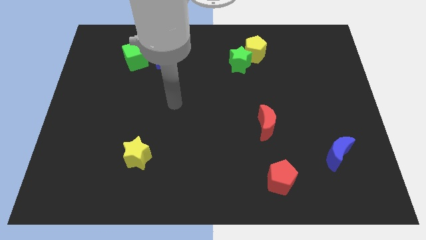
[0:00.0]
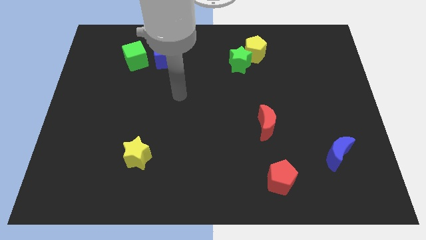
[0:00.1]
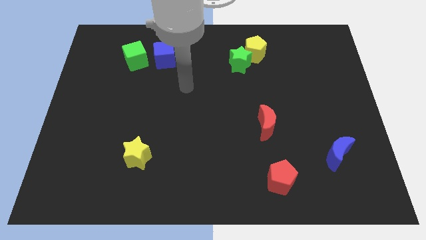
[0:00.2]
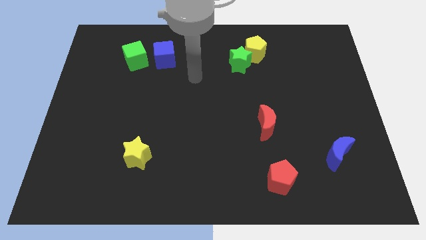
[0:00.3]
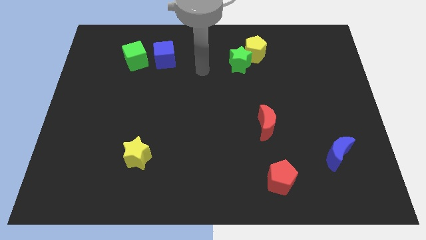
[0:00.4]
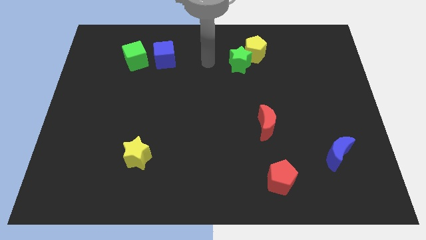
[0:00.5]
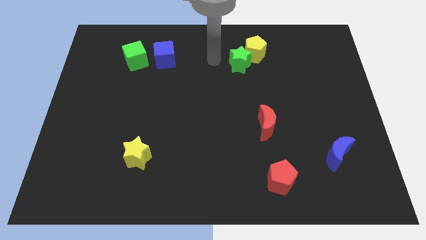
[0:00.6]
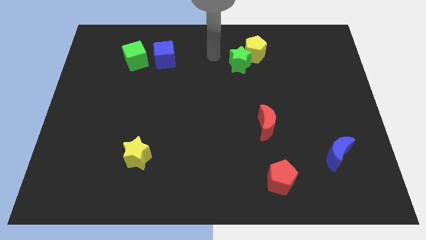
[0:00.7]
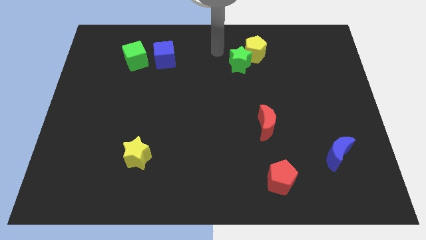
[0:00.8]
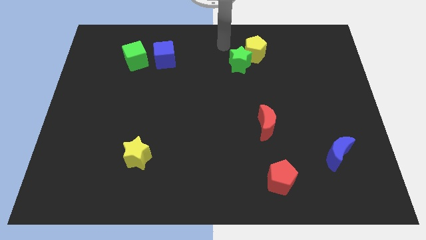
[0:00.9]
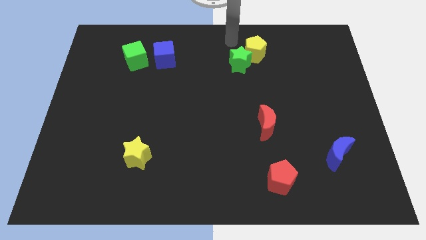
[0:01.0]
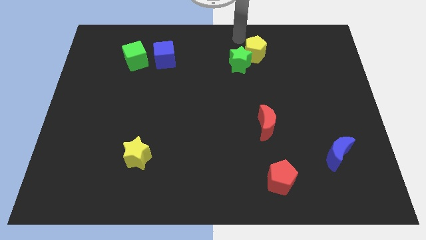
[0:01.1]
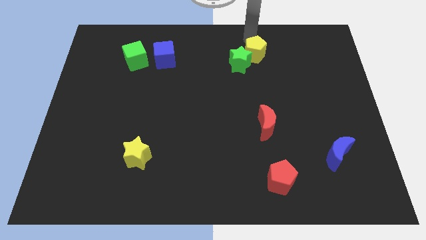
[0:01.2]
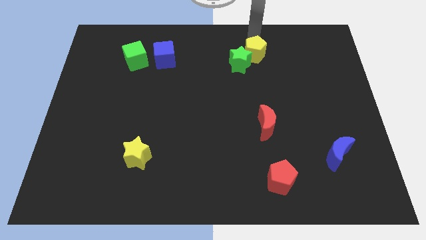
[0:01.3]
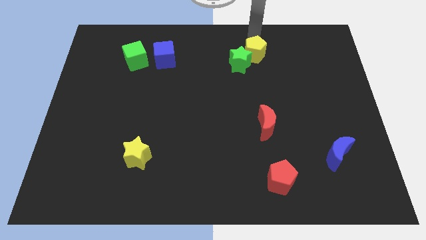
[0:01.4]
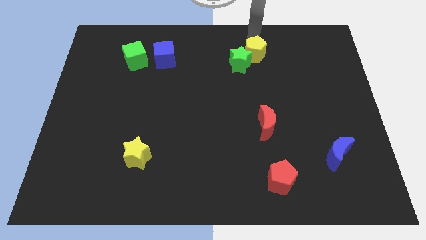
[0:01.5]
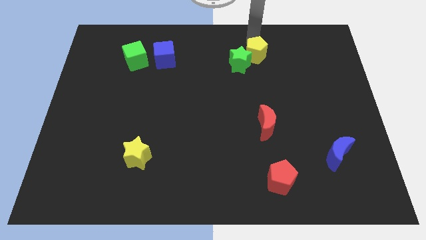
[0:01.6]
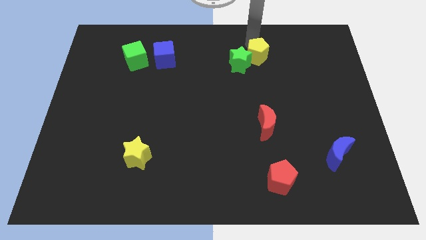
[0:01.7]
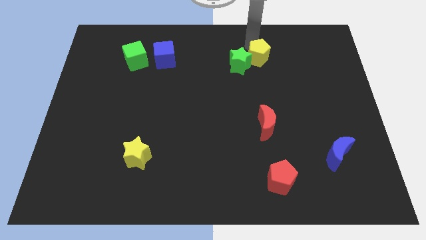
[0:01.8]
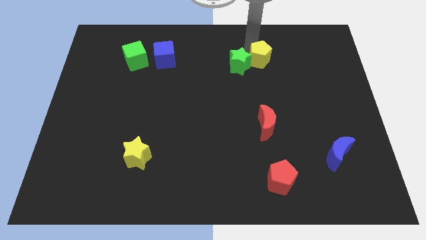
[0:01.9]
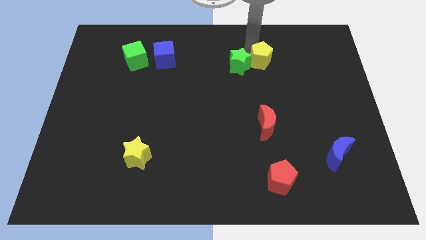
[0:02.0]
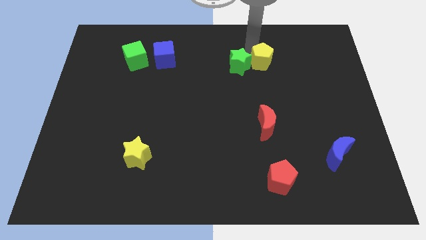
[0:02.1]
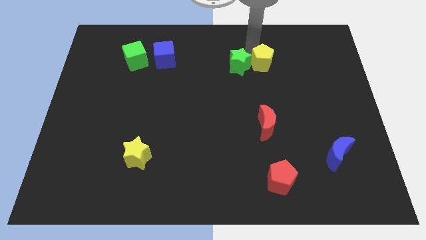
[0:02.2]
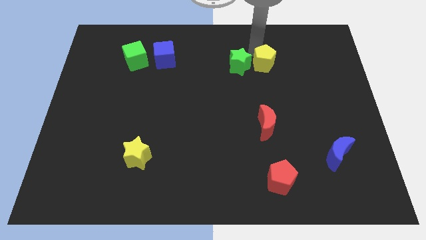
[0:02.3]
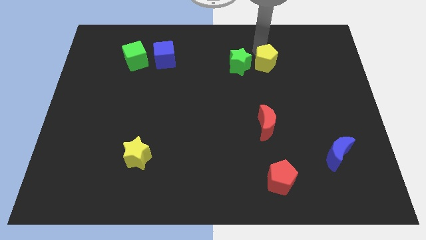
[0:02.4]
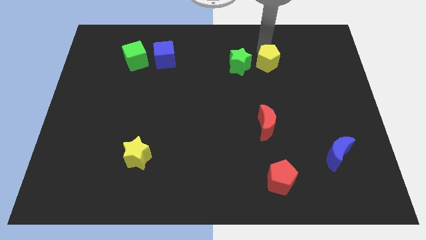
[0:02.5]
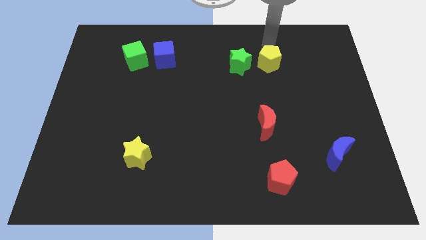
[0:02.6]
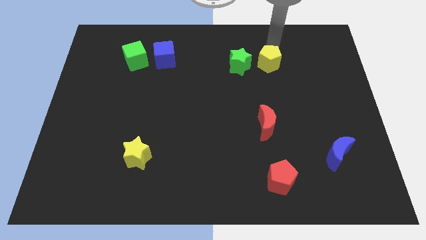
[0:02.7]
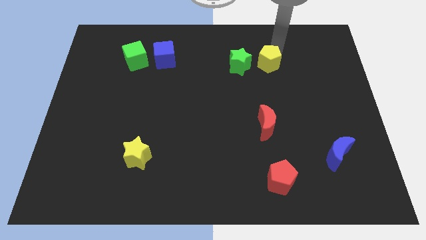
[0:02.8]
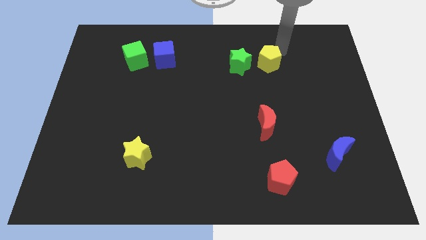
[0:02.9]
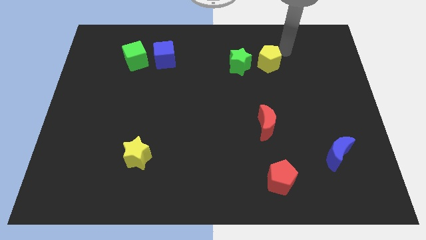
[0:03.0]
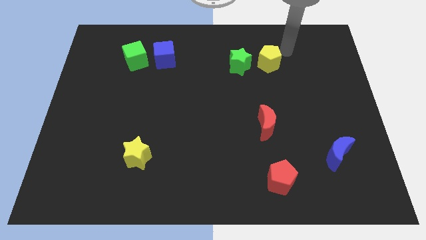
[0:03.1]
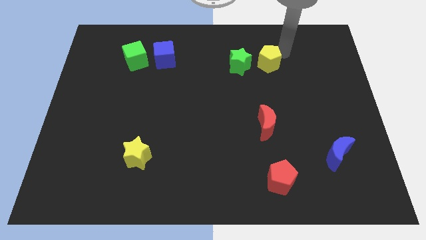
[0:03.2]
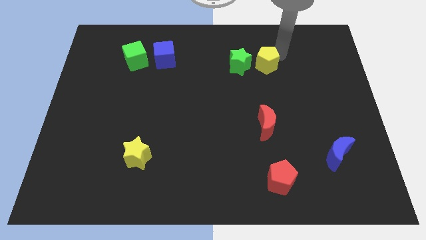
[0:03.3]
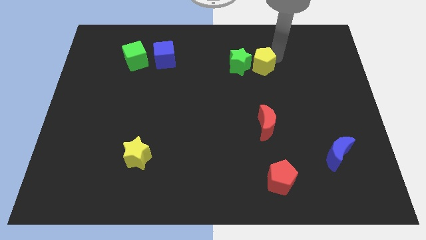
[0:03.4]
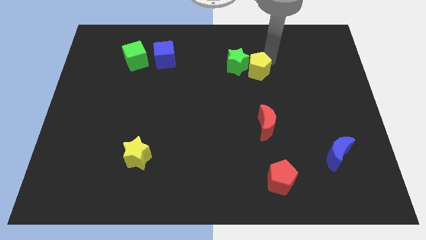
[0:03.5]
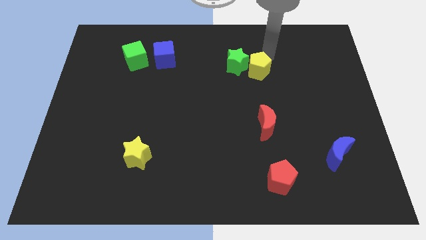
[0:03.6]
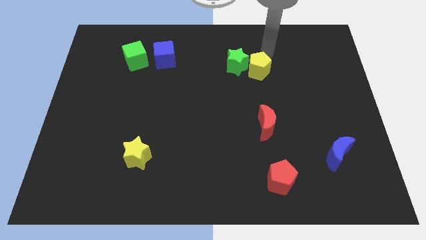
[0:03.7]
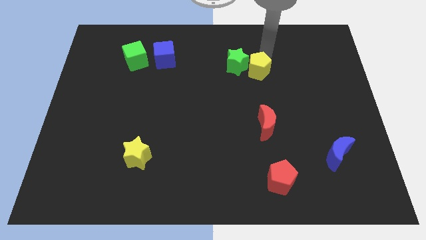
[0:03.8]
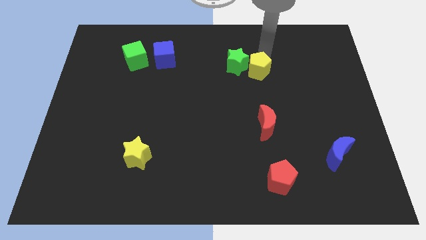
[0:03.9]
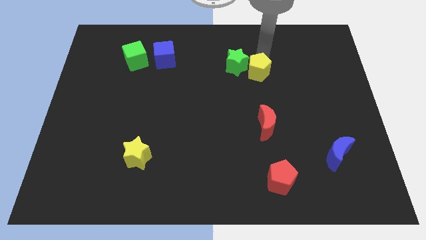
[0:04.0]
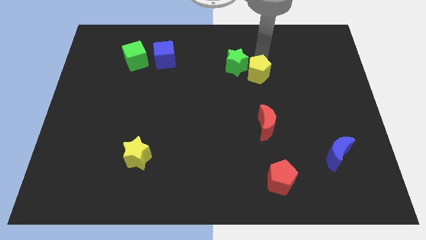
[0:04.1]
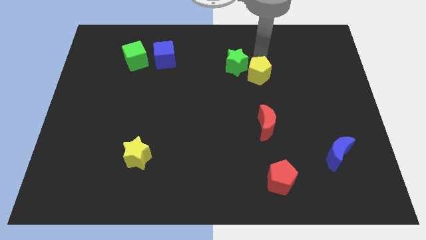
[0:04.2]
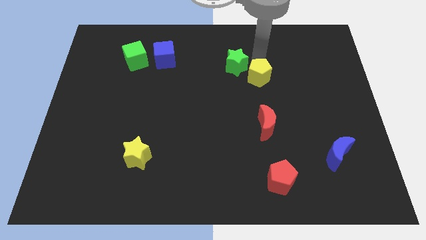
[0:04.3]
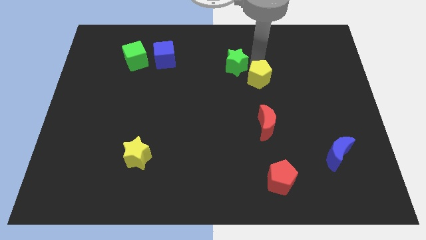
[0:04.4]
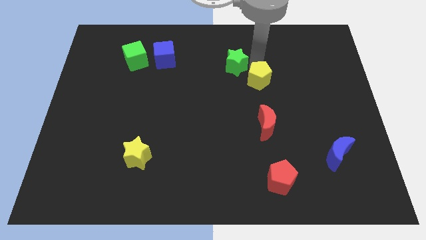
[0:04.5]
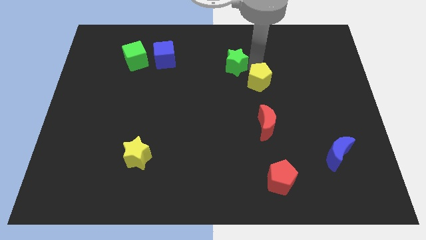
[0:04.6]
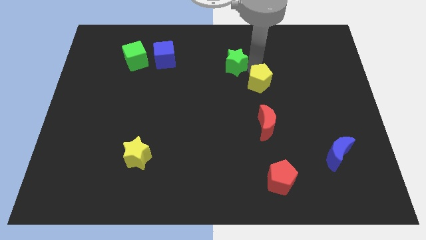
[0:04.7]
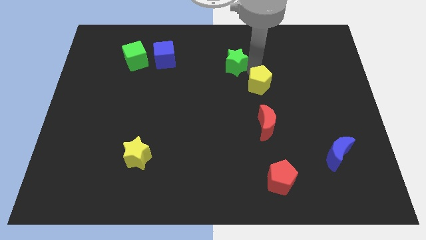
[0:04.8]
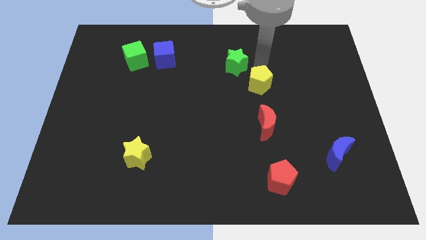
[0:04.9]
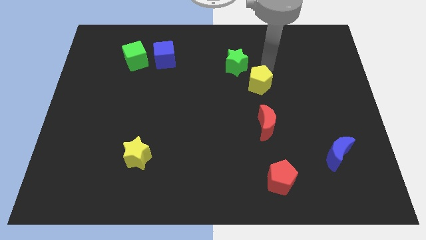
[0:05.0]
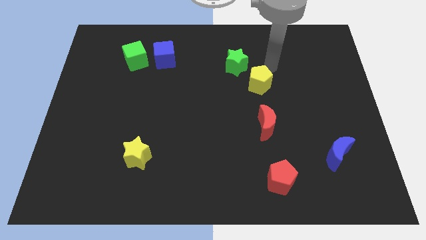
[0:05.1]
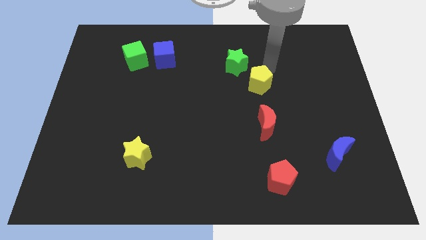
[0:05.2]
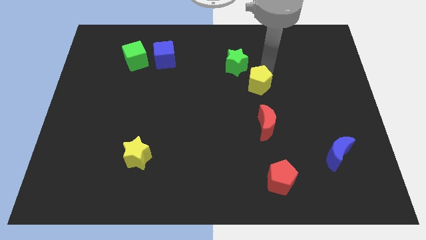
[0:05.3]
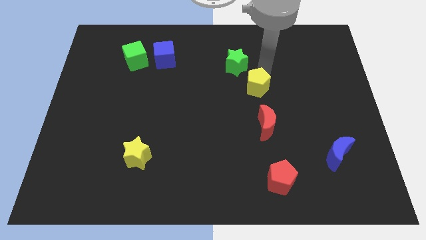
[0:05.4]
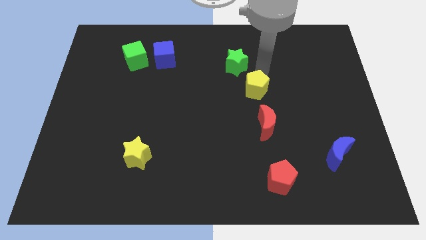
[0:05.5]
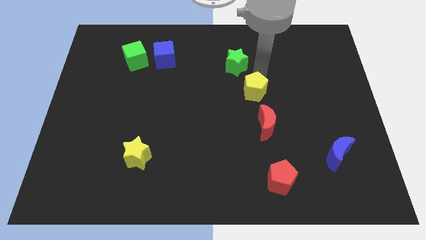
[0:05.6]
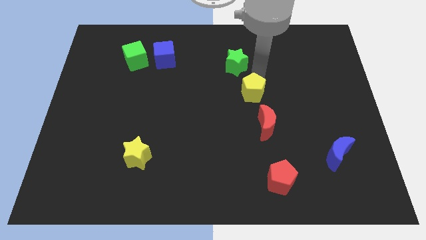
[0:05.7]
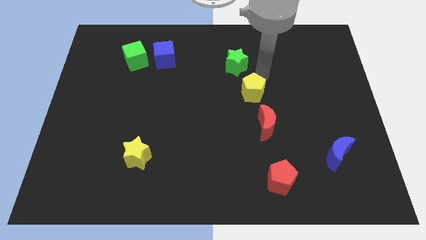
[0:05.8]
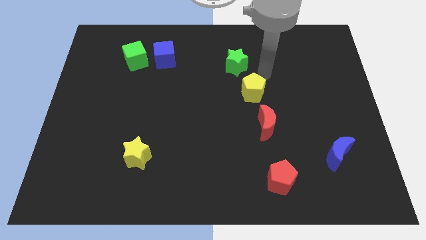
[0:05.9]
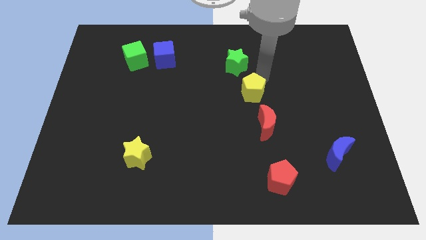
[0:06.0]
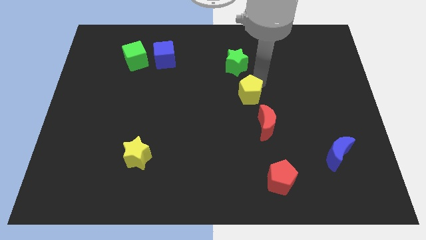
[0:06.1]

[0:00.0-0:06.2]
put the yellow pentagon to the top left side of the red moon

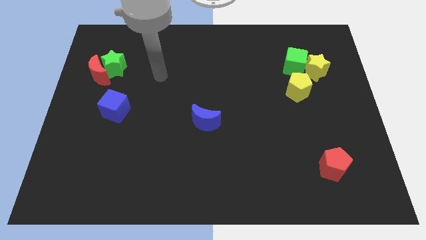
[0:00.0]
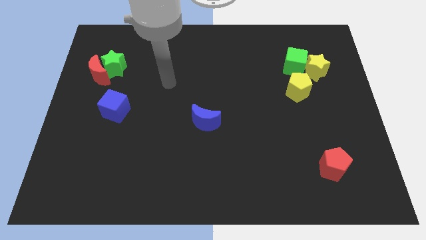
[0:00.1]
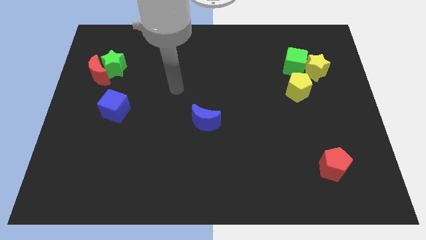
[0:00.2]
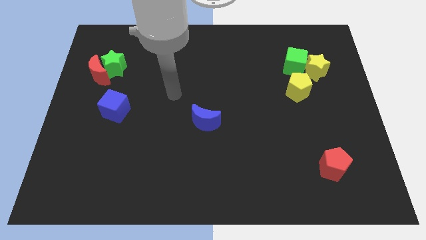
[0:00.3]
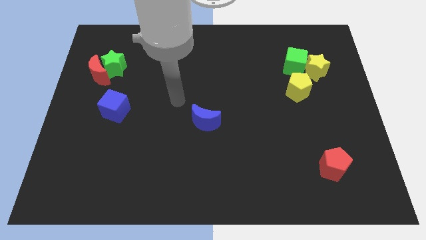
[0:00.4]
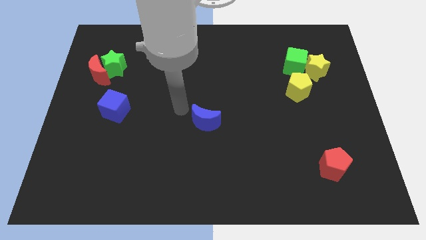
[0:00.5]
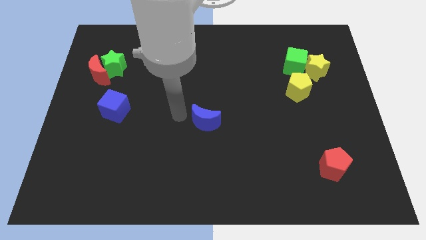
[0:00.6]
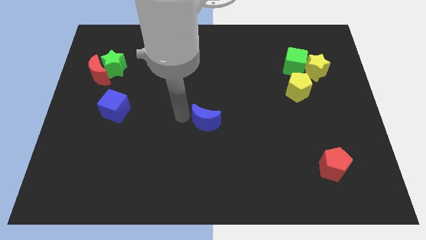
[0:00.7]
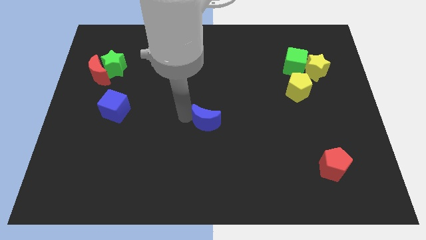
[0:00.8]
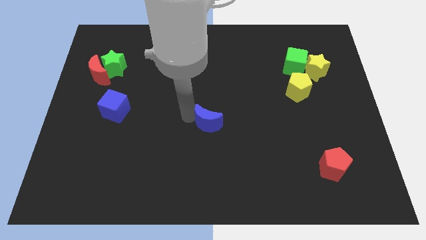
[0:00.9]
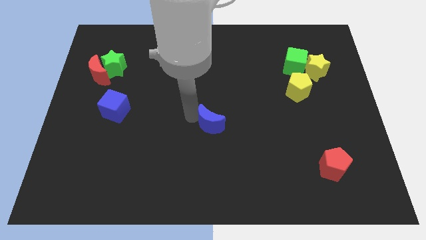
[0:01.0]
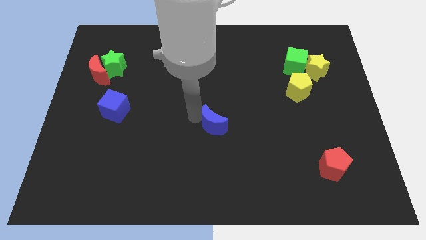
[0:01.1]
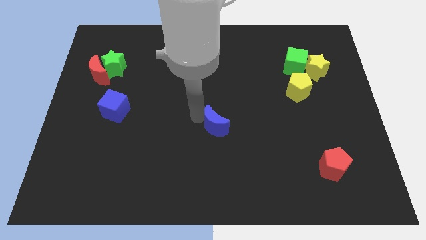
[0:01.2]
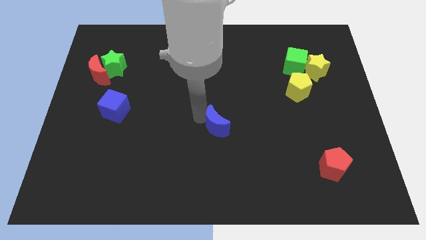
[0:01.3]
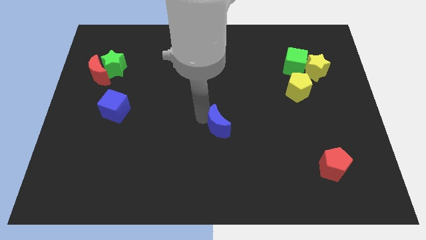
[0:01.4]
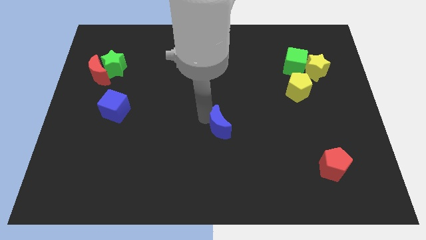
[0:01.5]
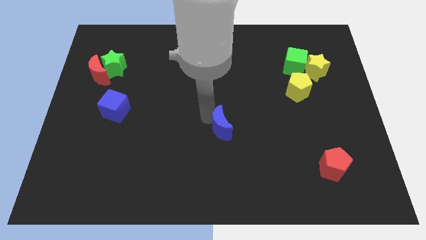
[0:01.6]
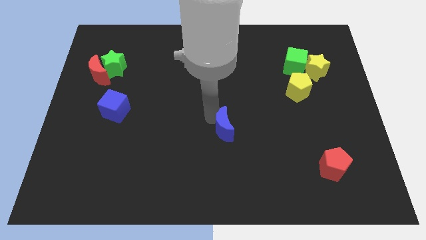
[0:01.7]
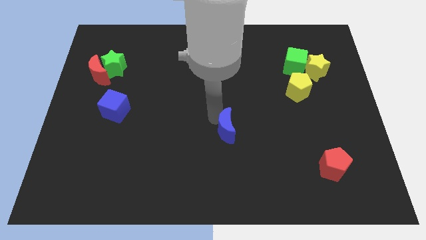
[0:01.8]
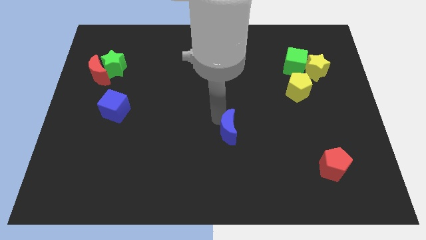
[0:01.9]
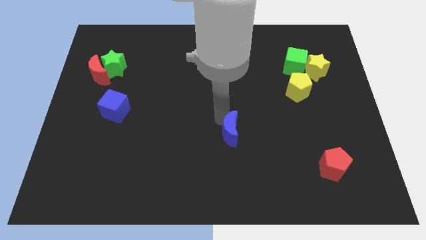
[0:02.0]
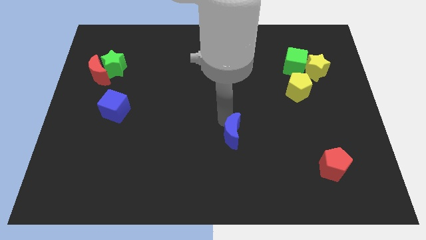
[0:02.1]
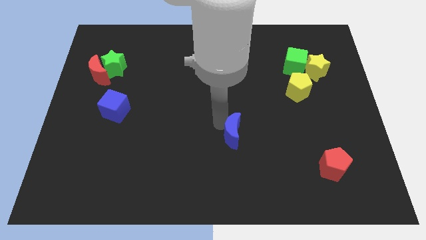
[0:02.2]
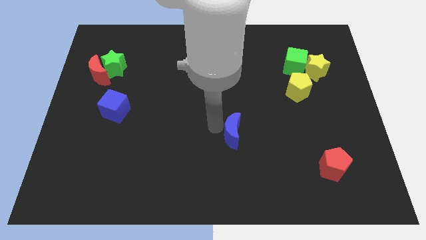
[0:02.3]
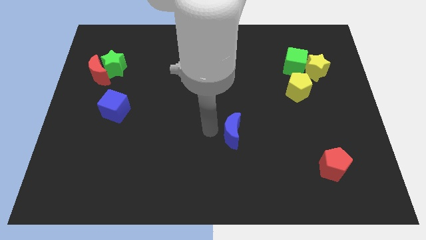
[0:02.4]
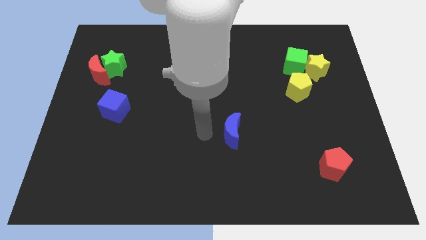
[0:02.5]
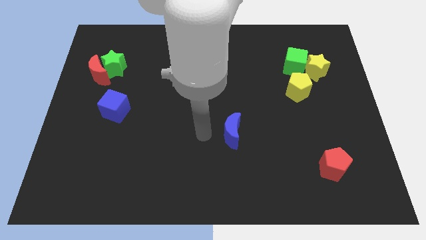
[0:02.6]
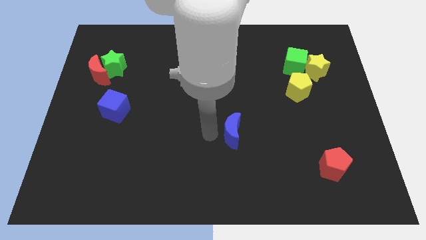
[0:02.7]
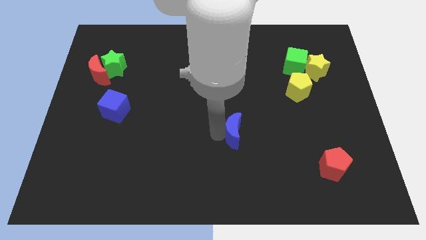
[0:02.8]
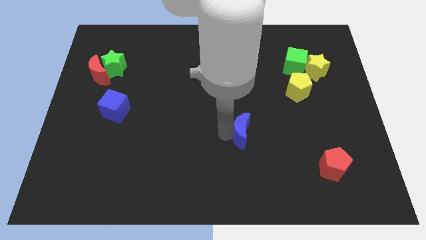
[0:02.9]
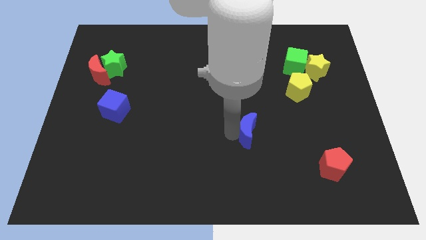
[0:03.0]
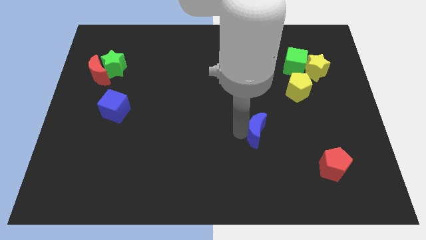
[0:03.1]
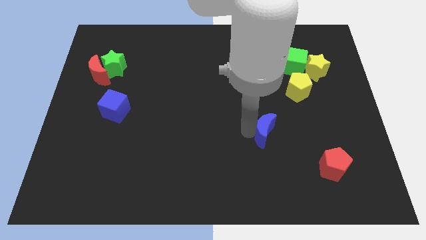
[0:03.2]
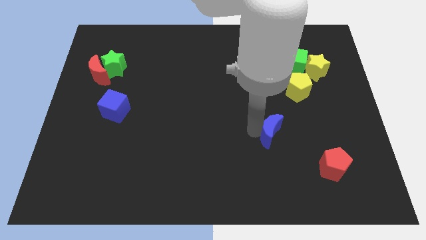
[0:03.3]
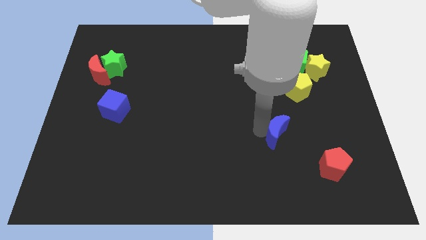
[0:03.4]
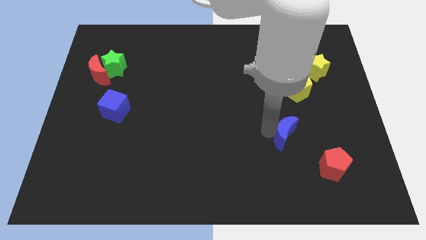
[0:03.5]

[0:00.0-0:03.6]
put the blue moon to the top left side of the red pentagon
